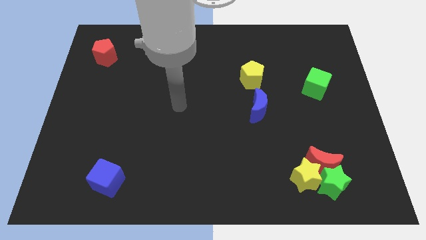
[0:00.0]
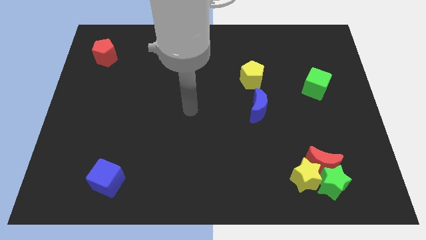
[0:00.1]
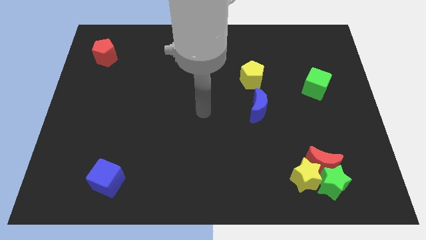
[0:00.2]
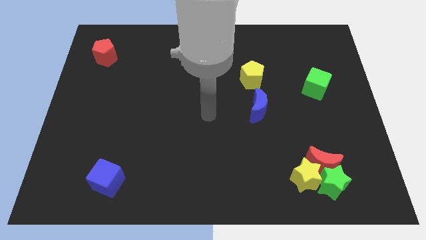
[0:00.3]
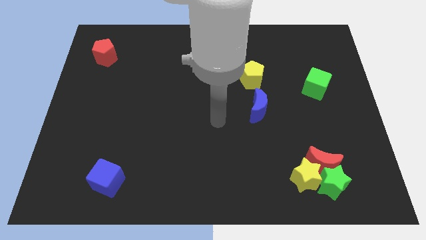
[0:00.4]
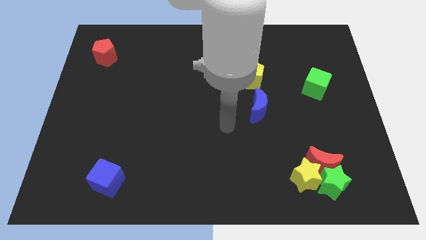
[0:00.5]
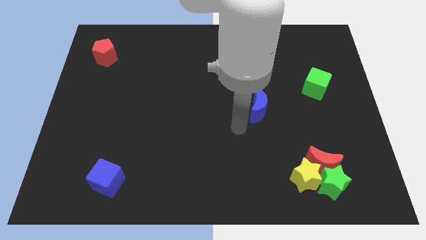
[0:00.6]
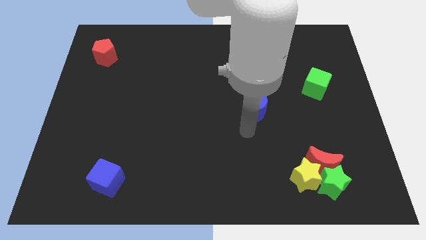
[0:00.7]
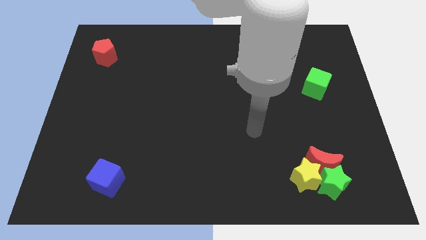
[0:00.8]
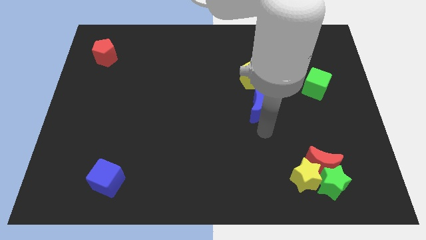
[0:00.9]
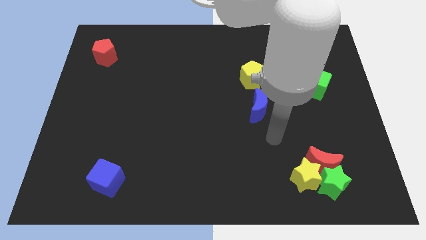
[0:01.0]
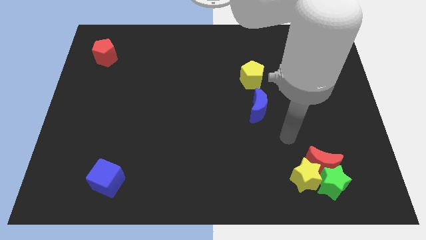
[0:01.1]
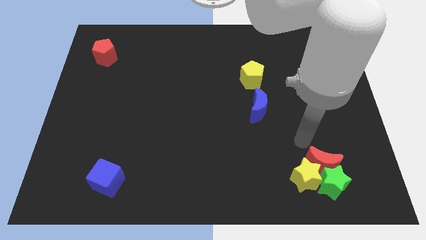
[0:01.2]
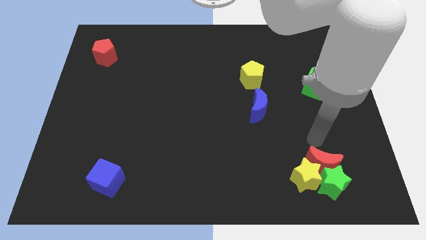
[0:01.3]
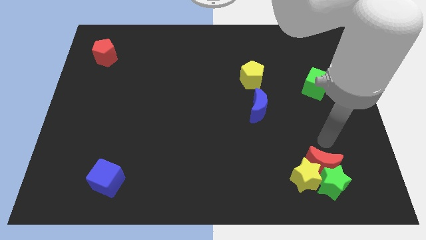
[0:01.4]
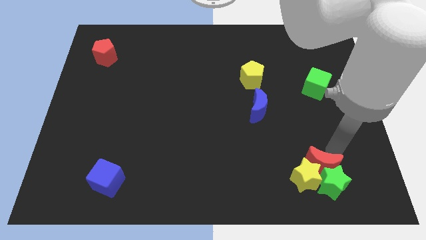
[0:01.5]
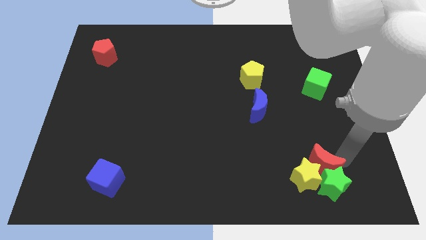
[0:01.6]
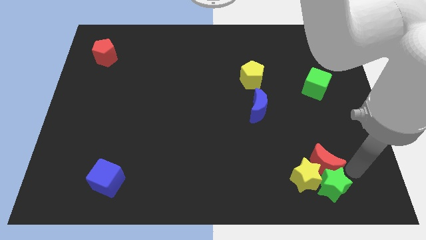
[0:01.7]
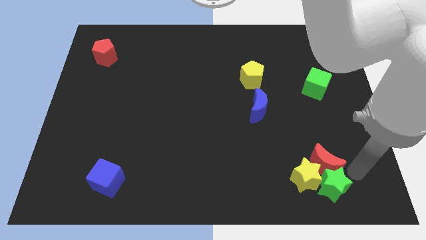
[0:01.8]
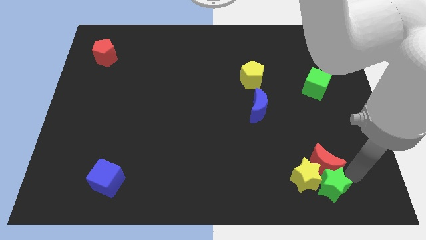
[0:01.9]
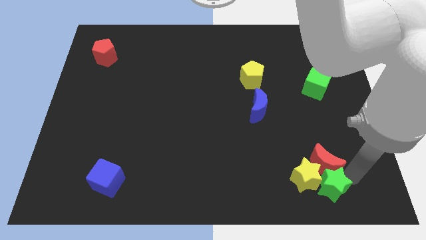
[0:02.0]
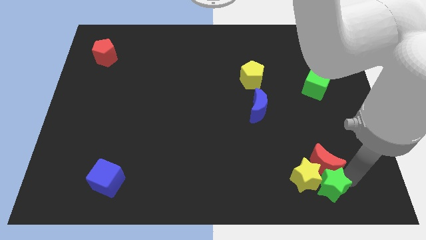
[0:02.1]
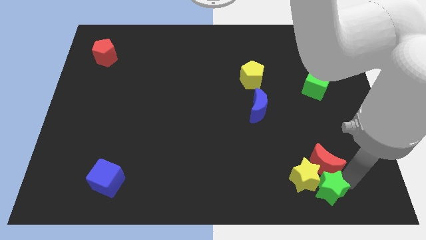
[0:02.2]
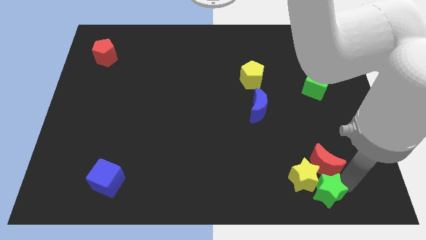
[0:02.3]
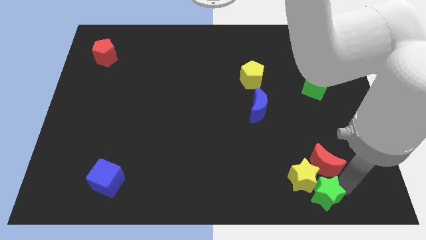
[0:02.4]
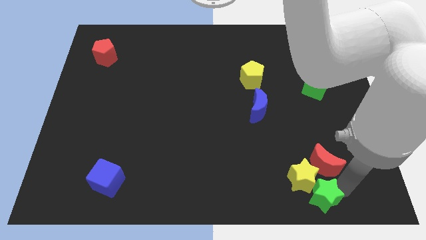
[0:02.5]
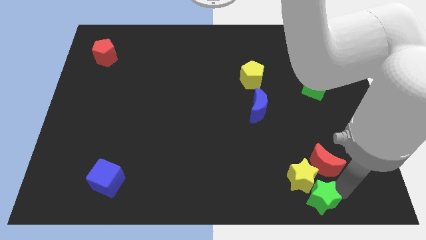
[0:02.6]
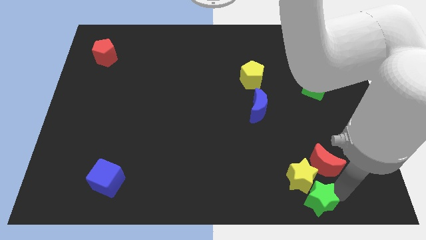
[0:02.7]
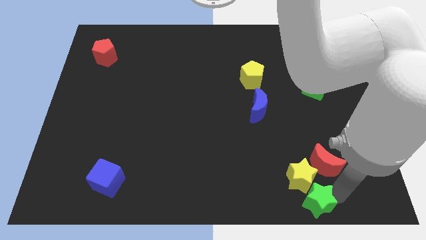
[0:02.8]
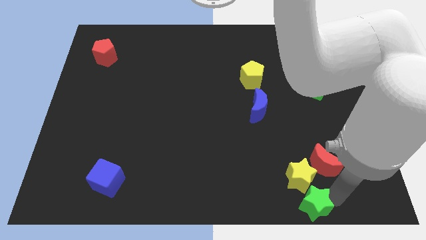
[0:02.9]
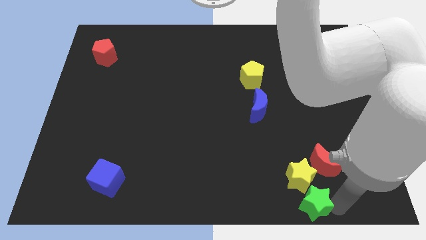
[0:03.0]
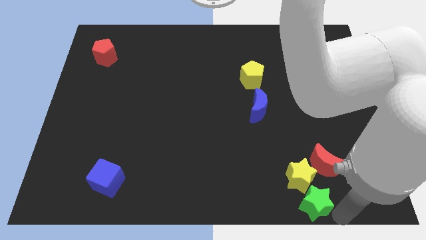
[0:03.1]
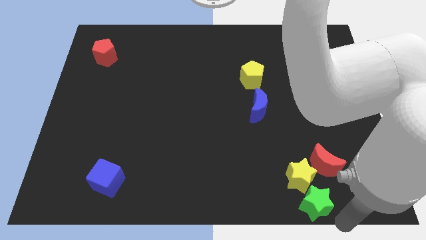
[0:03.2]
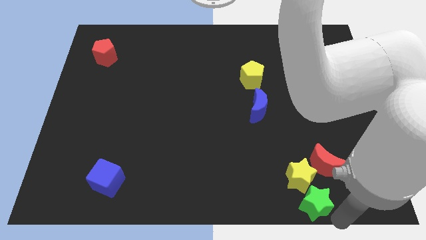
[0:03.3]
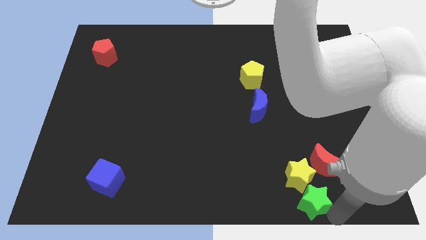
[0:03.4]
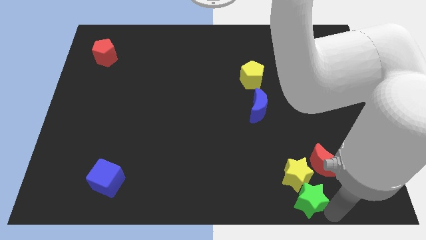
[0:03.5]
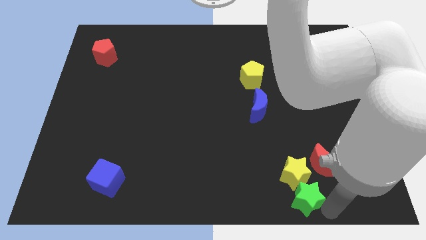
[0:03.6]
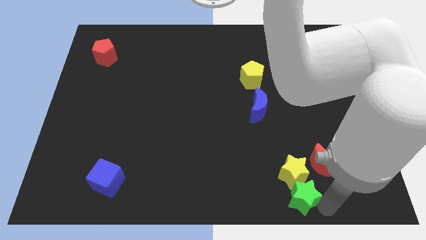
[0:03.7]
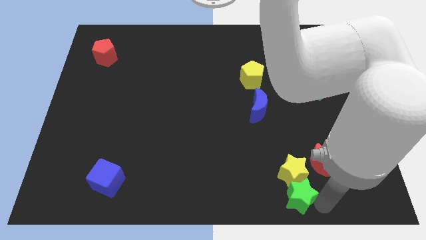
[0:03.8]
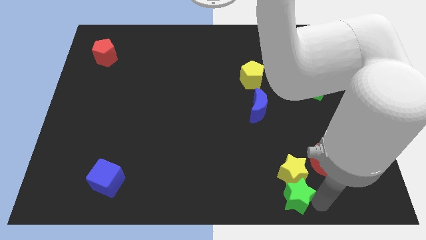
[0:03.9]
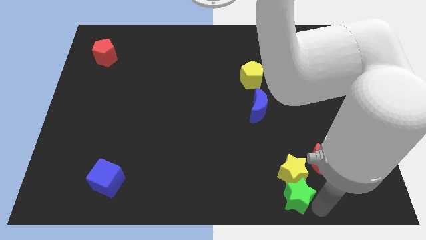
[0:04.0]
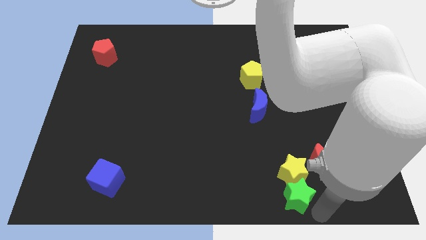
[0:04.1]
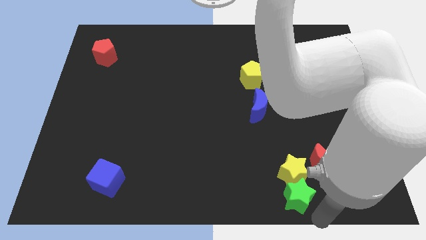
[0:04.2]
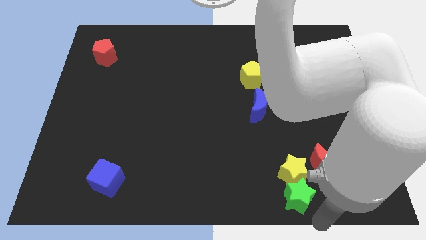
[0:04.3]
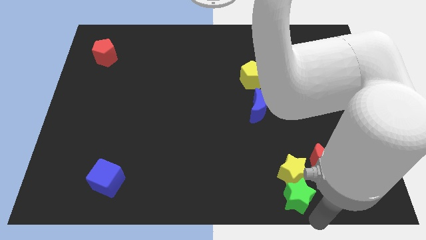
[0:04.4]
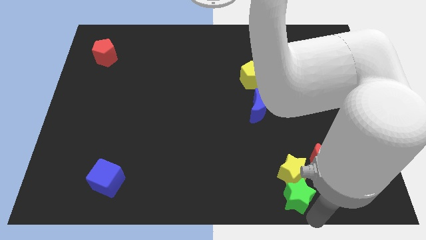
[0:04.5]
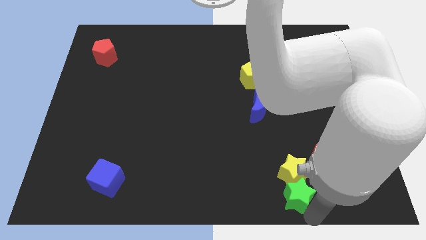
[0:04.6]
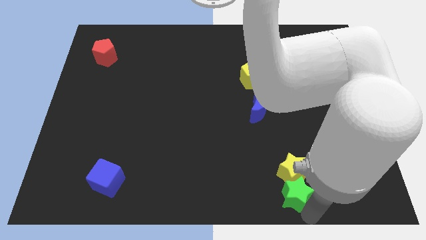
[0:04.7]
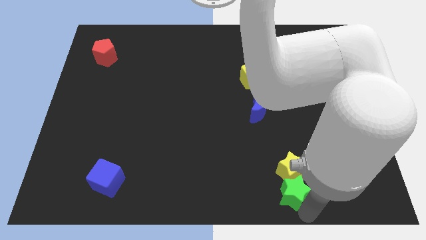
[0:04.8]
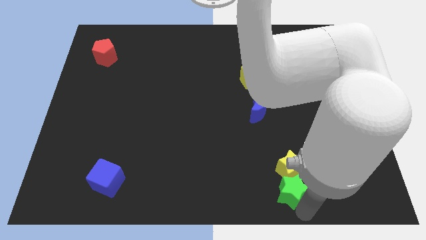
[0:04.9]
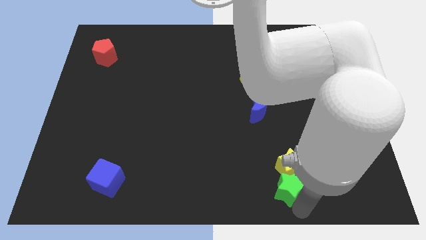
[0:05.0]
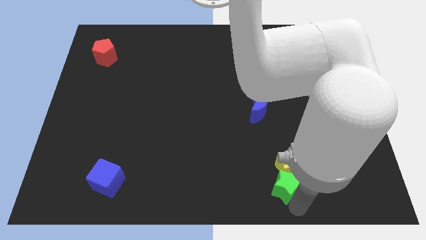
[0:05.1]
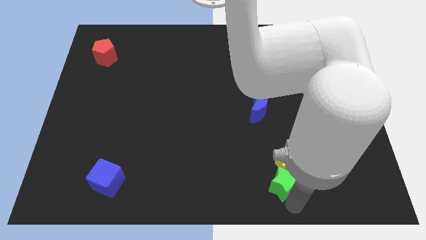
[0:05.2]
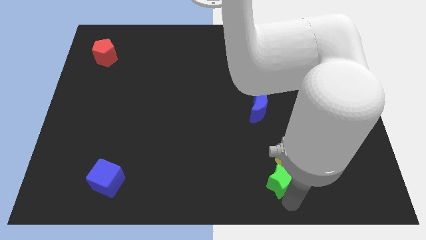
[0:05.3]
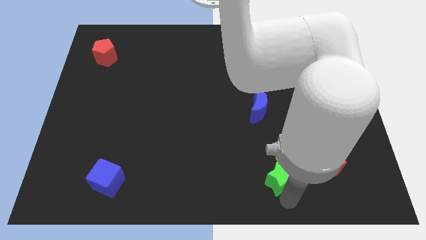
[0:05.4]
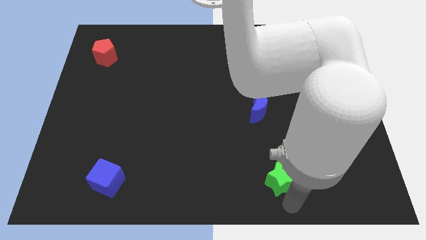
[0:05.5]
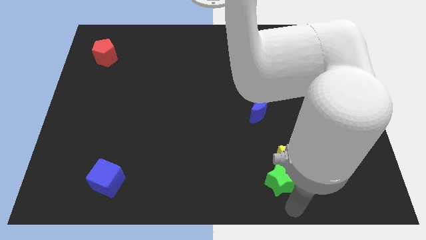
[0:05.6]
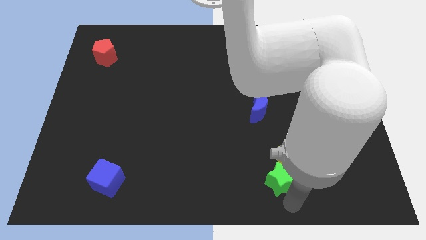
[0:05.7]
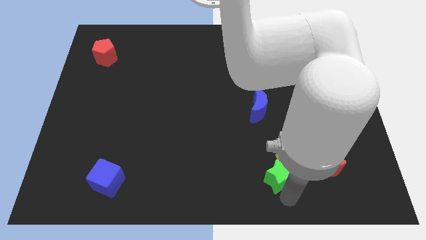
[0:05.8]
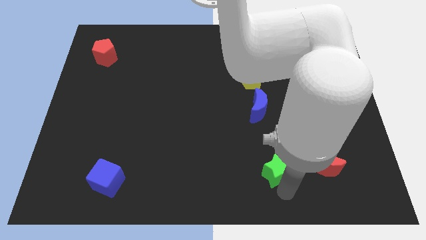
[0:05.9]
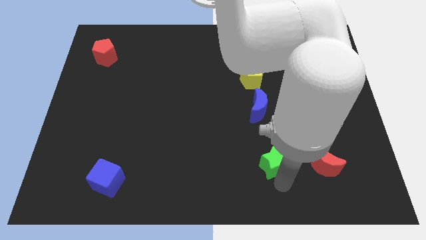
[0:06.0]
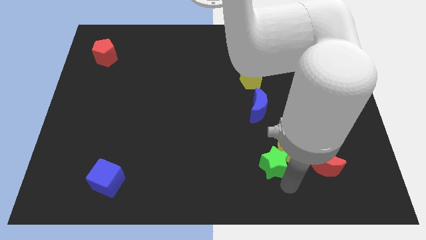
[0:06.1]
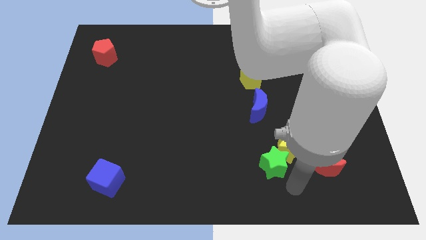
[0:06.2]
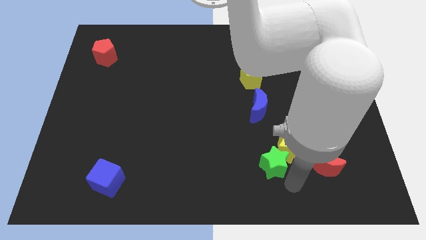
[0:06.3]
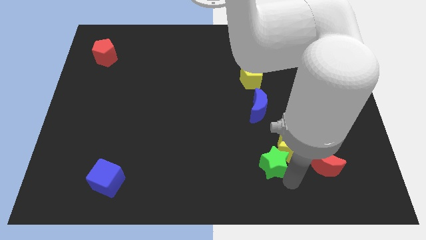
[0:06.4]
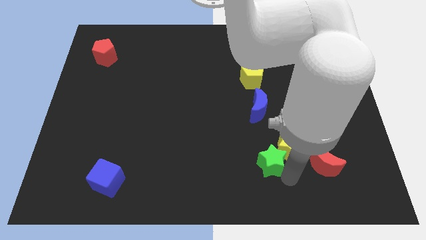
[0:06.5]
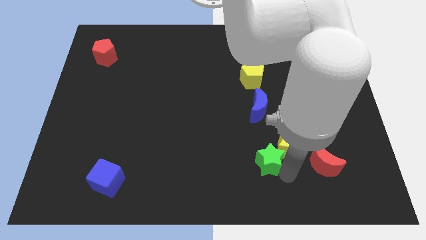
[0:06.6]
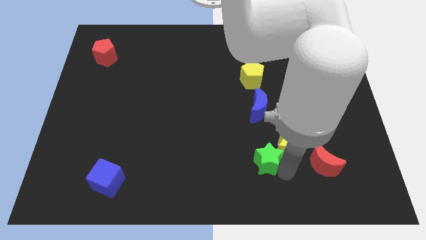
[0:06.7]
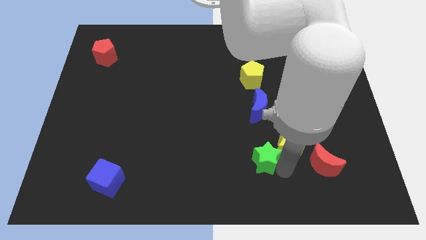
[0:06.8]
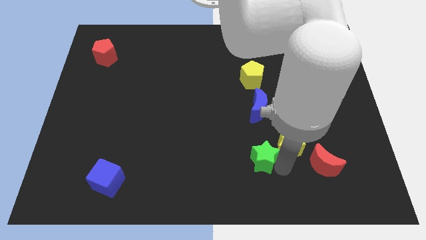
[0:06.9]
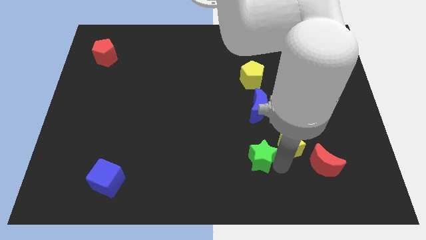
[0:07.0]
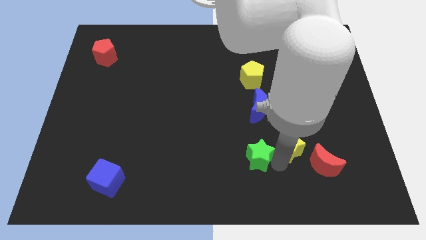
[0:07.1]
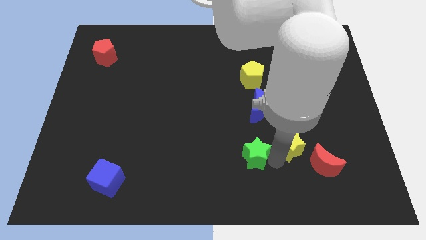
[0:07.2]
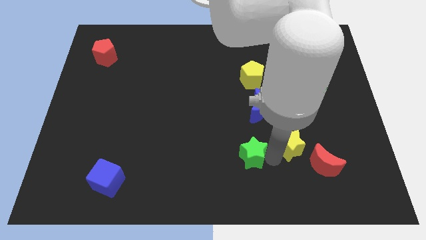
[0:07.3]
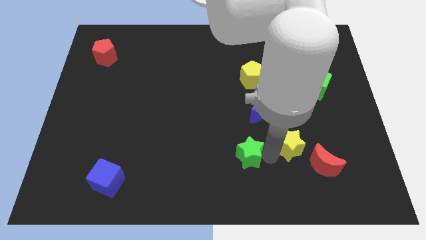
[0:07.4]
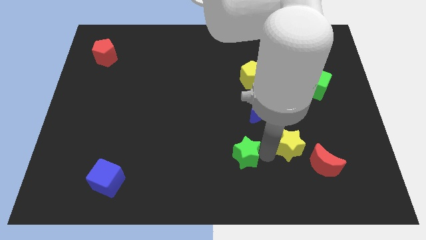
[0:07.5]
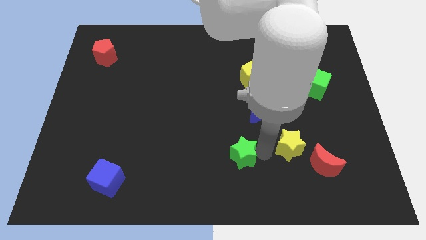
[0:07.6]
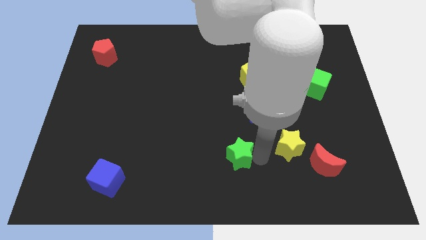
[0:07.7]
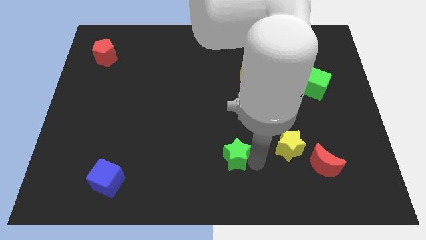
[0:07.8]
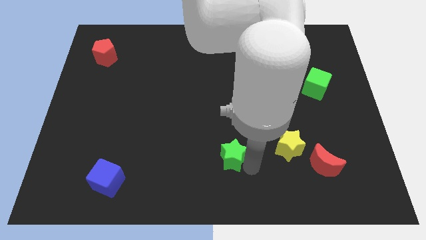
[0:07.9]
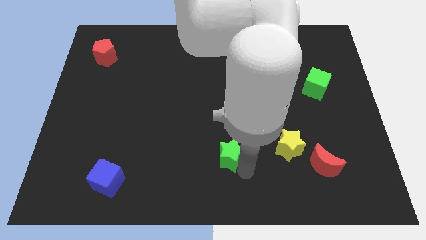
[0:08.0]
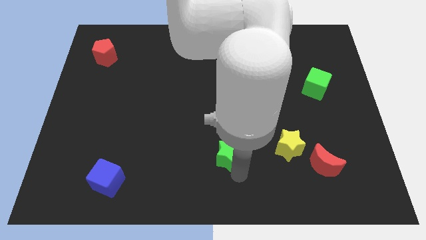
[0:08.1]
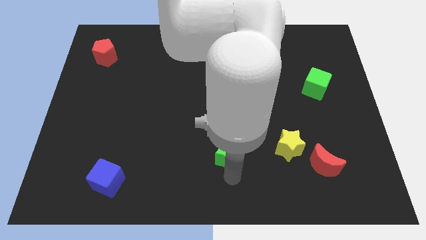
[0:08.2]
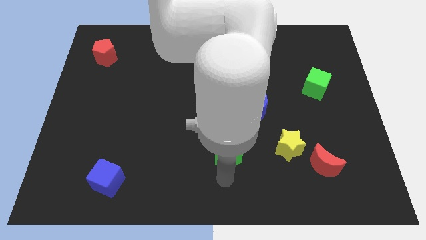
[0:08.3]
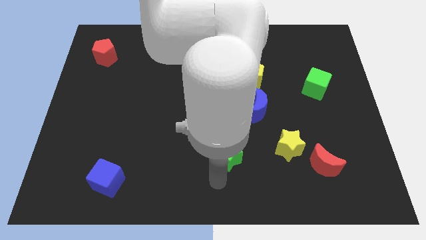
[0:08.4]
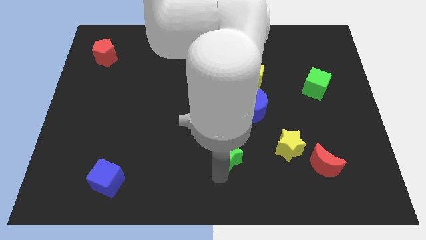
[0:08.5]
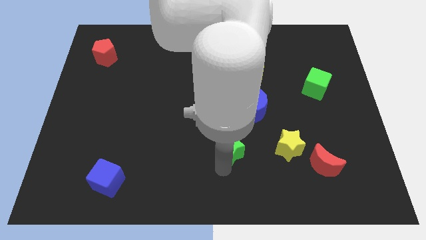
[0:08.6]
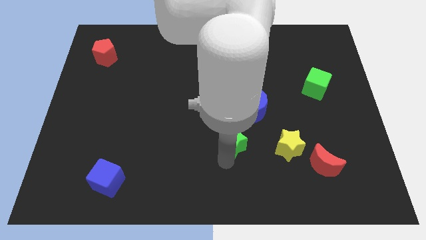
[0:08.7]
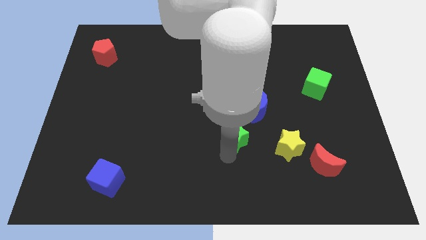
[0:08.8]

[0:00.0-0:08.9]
slide the green star up and to the left
